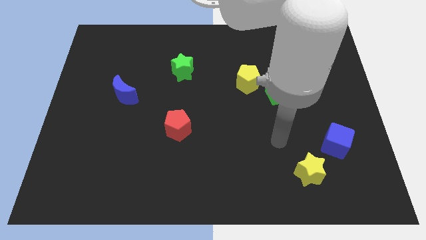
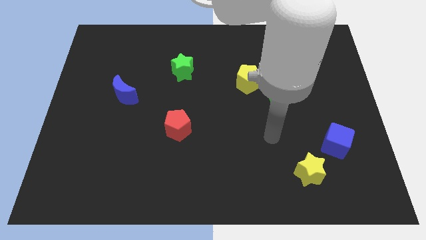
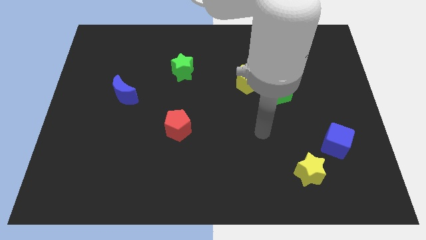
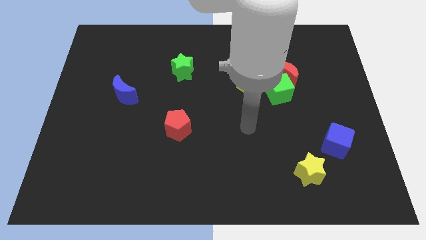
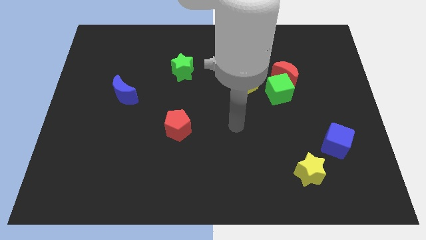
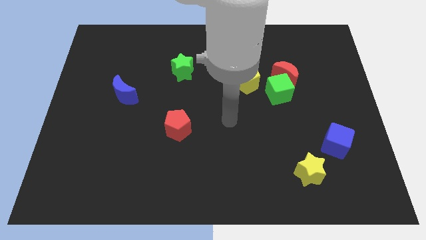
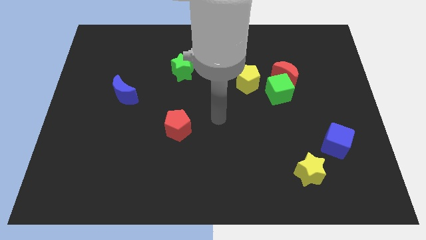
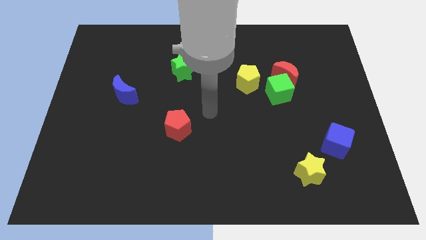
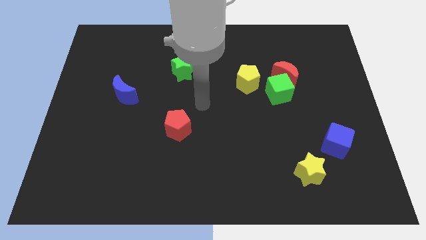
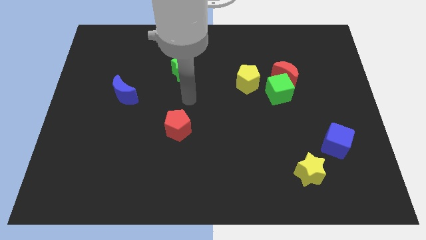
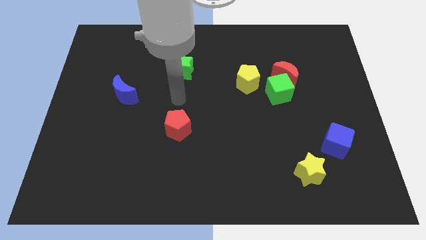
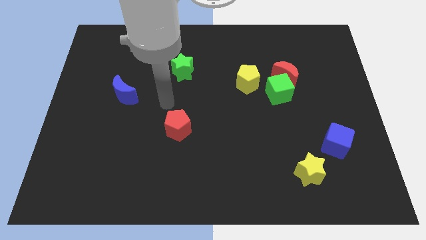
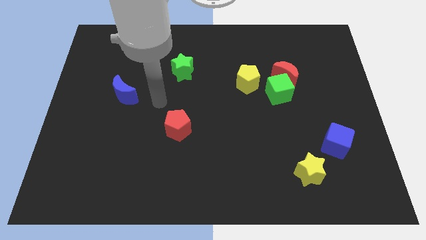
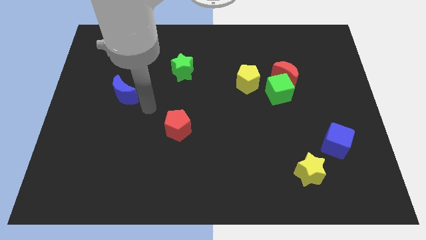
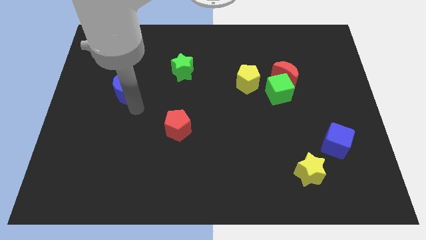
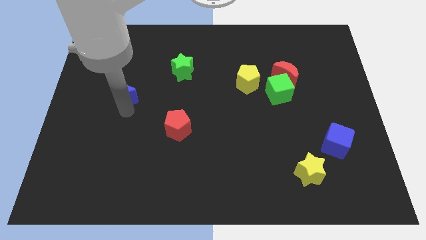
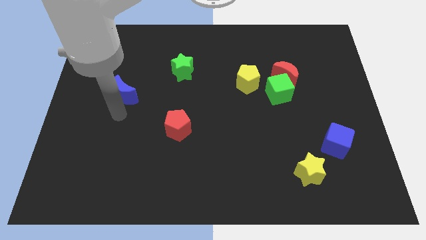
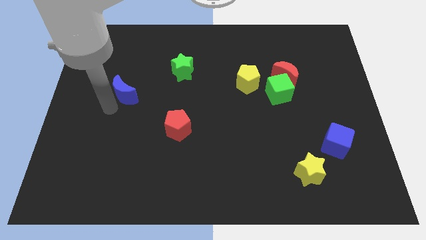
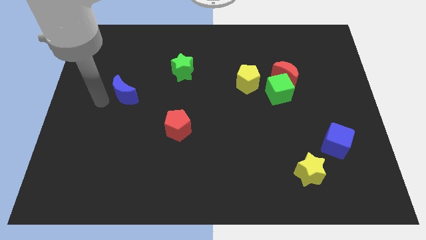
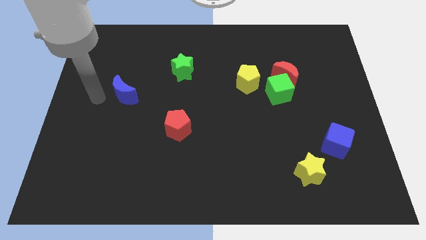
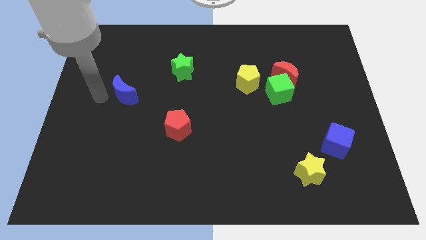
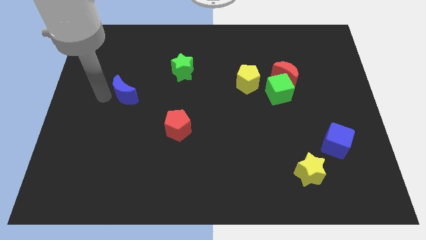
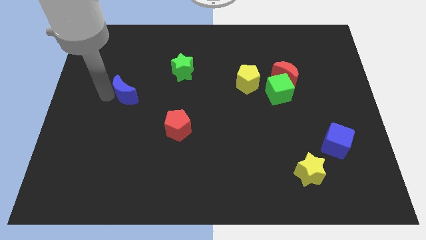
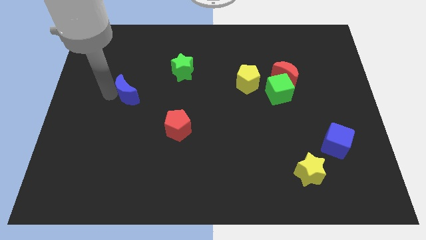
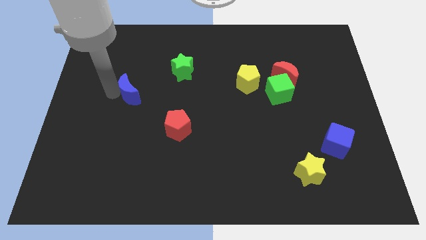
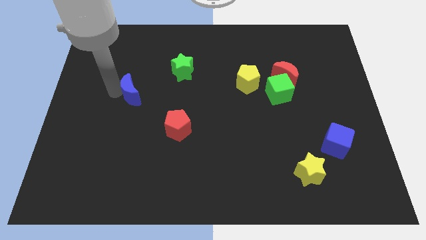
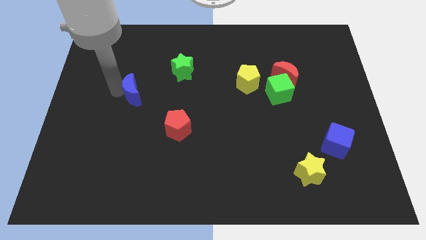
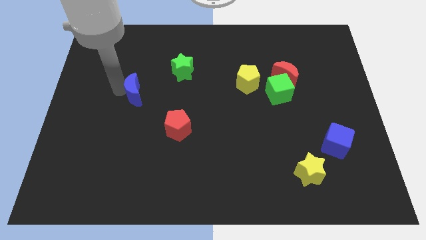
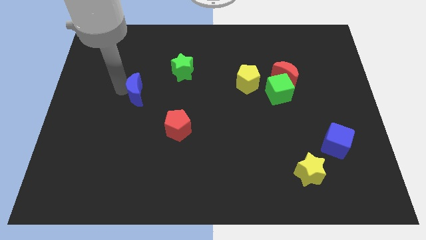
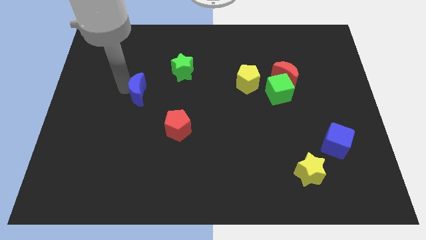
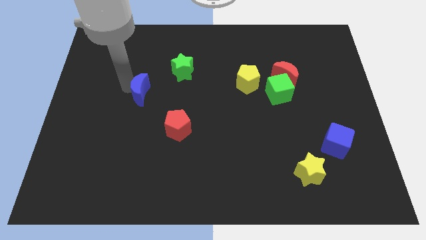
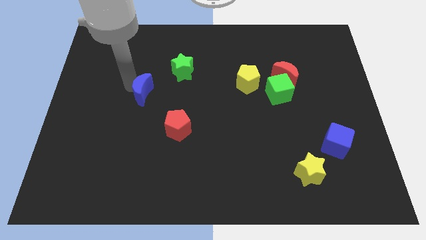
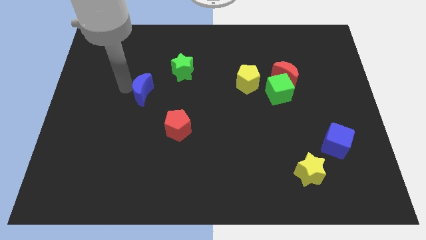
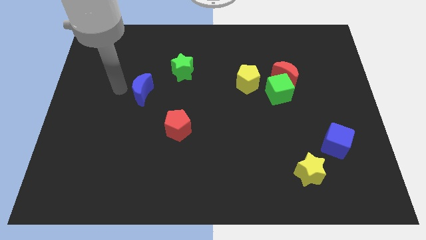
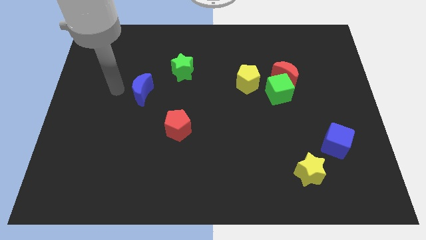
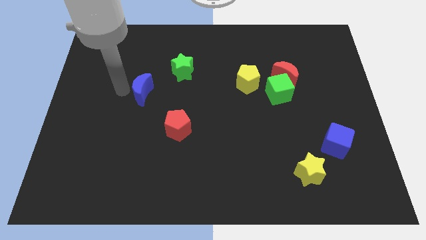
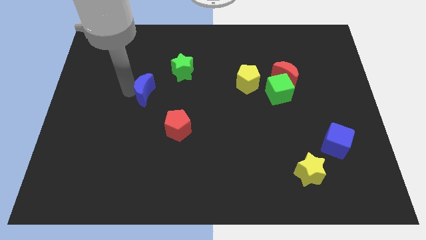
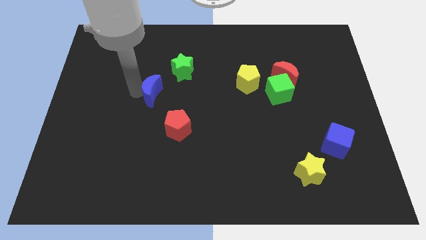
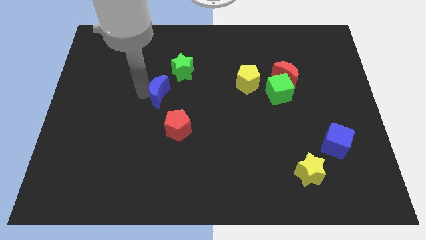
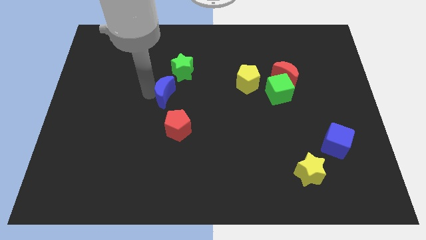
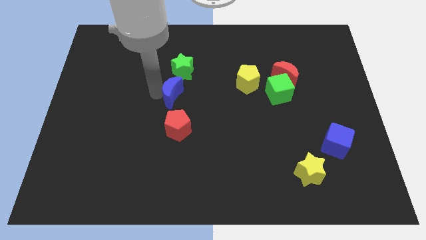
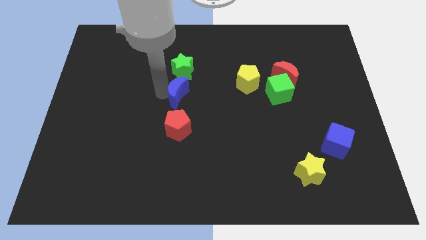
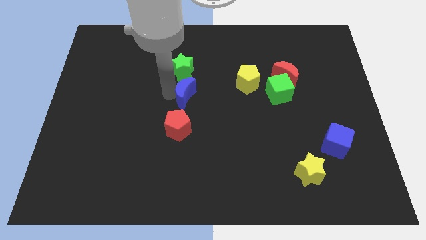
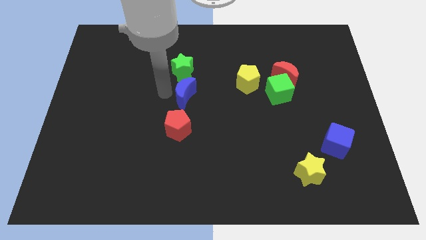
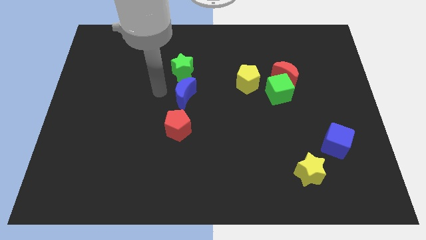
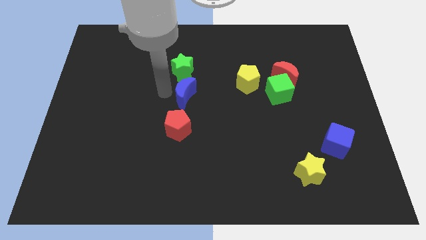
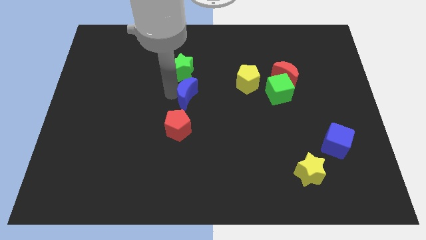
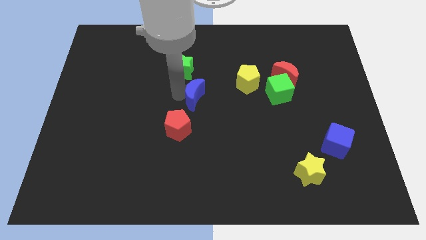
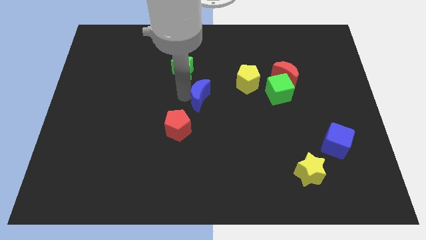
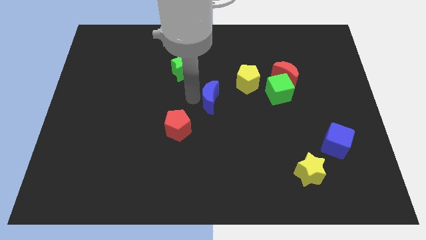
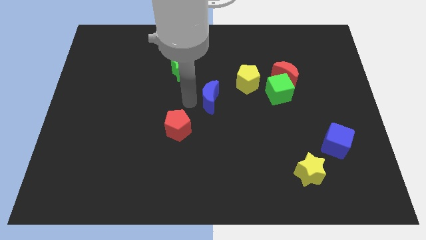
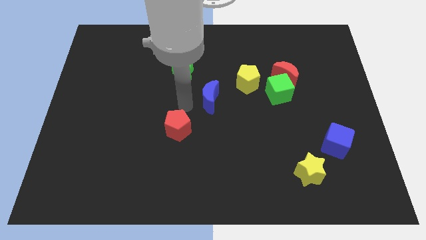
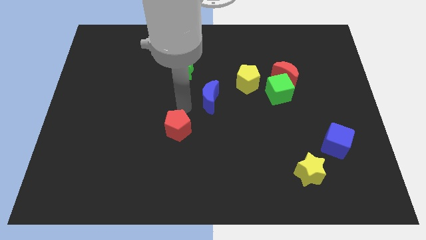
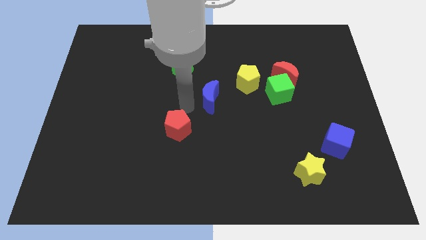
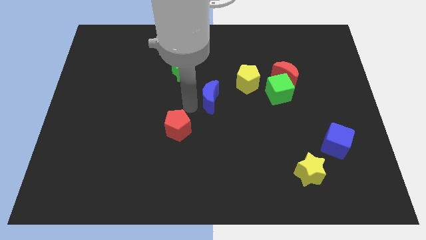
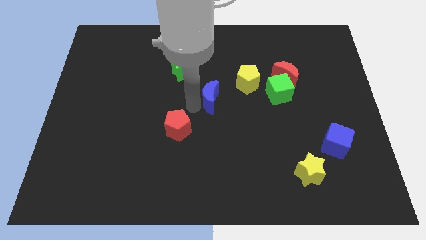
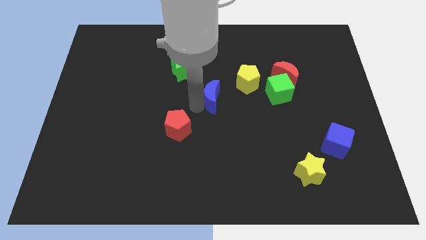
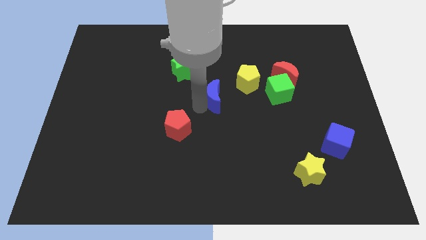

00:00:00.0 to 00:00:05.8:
put the blue moon just left of the green cube
